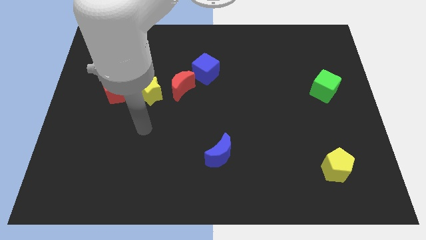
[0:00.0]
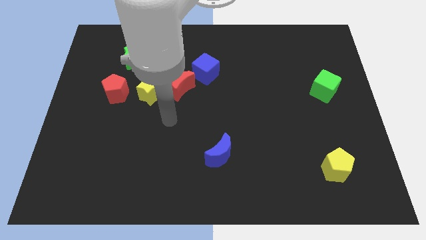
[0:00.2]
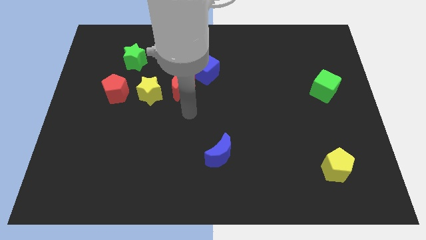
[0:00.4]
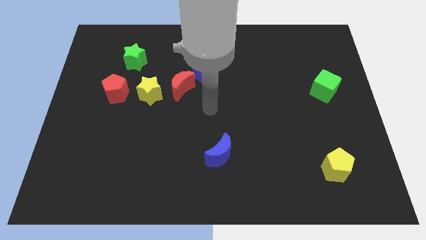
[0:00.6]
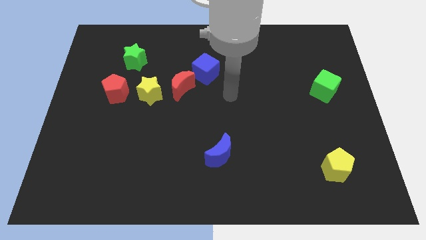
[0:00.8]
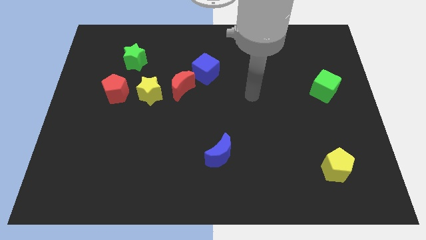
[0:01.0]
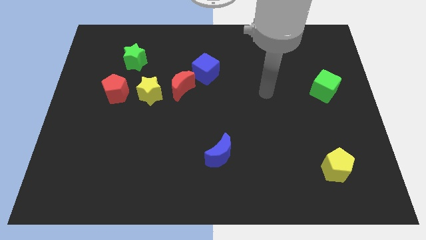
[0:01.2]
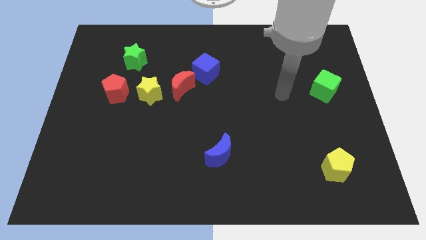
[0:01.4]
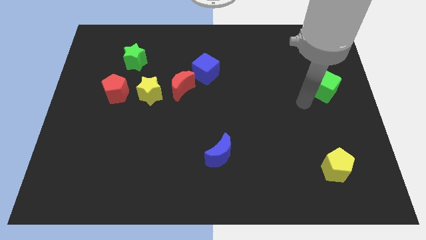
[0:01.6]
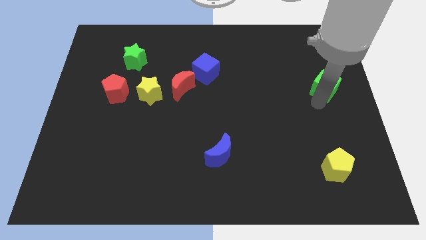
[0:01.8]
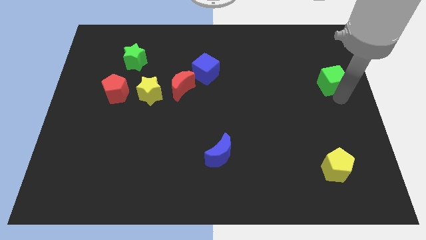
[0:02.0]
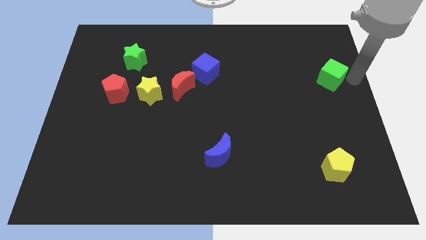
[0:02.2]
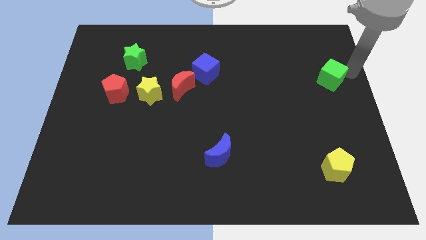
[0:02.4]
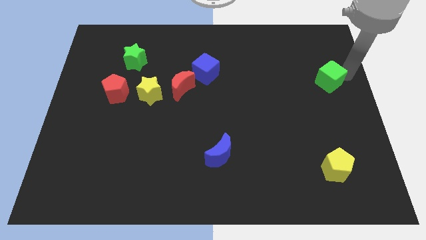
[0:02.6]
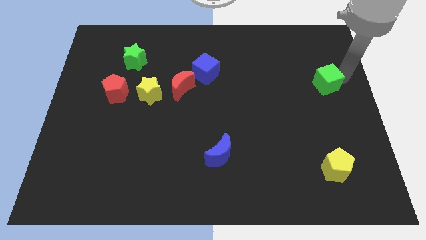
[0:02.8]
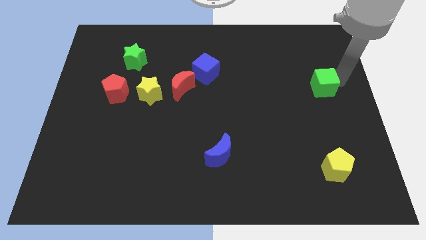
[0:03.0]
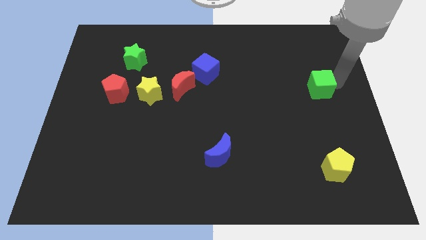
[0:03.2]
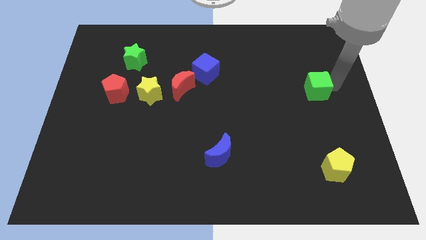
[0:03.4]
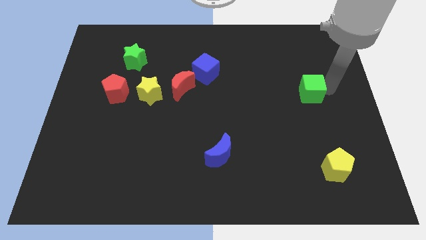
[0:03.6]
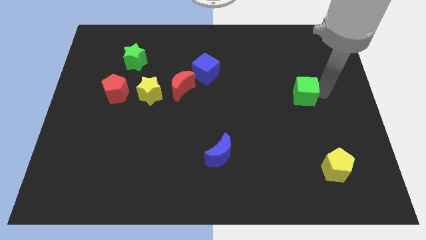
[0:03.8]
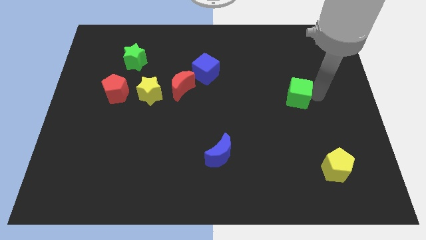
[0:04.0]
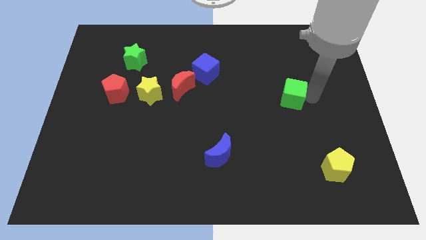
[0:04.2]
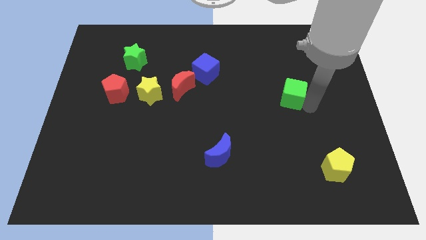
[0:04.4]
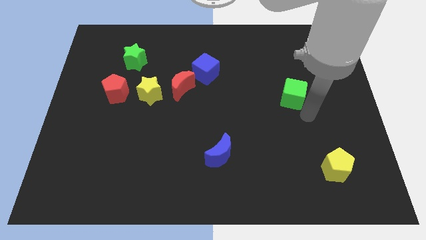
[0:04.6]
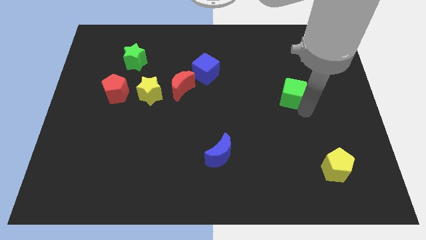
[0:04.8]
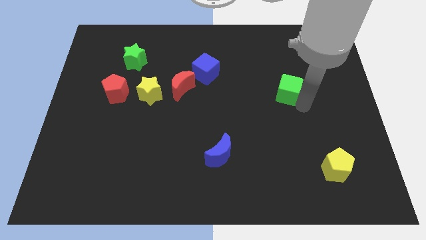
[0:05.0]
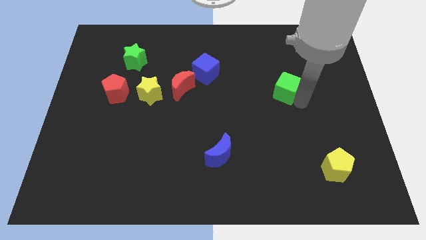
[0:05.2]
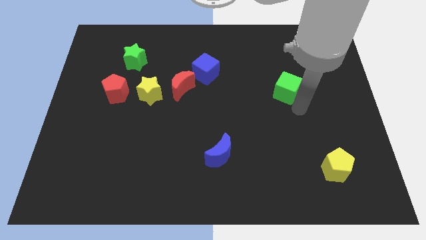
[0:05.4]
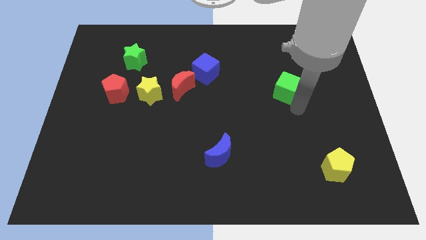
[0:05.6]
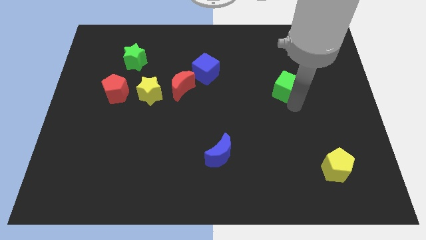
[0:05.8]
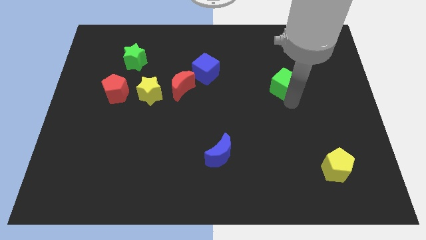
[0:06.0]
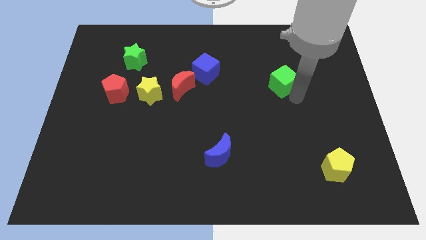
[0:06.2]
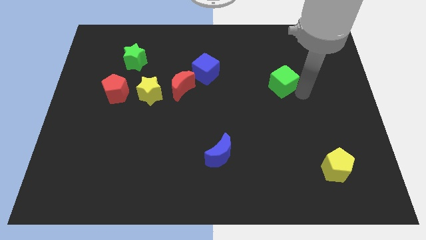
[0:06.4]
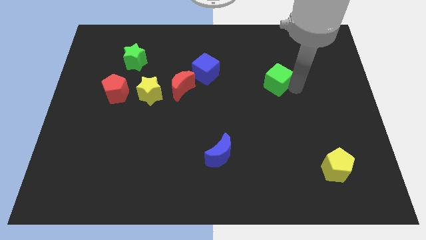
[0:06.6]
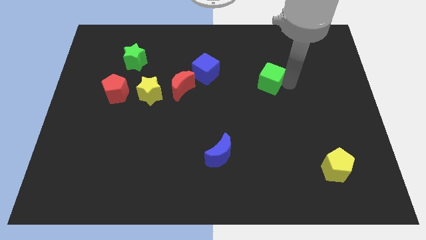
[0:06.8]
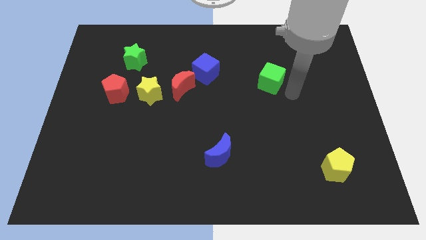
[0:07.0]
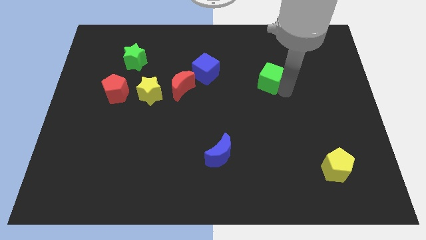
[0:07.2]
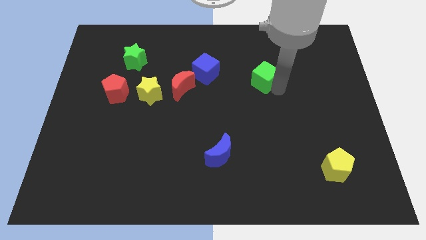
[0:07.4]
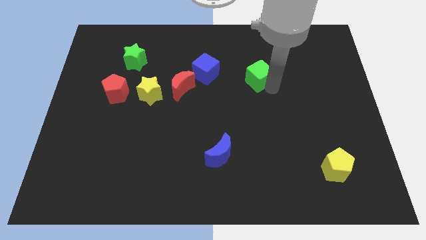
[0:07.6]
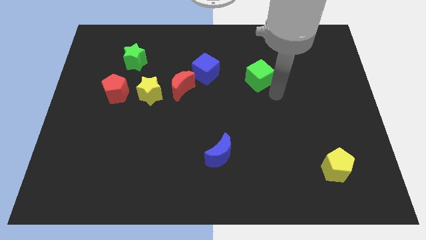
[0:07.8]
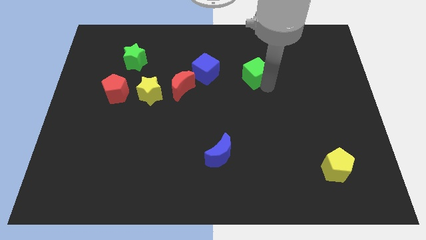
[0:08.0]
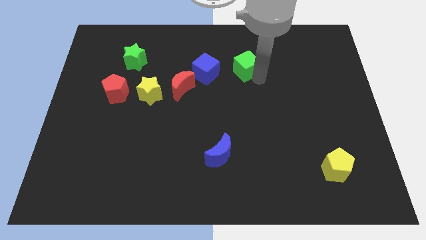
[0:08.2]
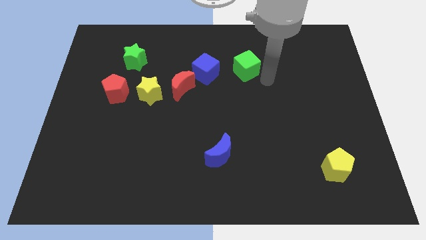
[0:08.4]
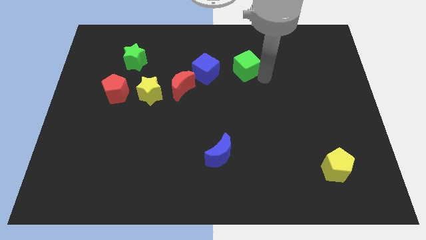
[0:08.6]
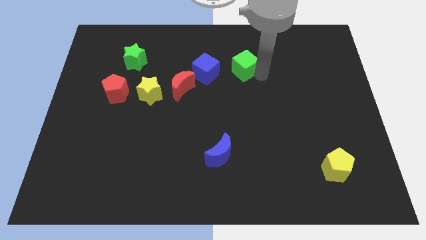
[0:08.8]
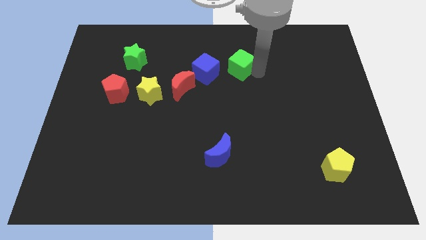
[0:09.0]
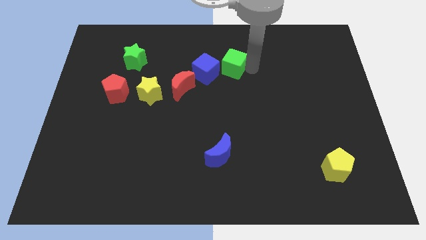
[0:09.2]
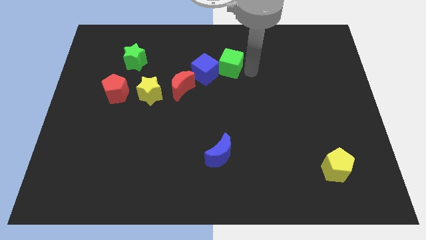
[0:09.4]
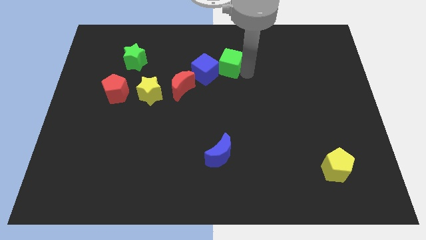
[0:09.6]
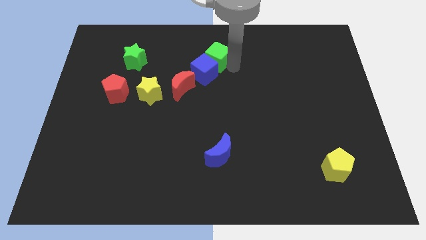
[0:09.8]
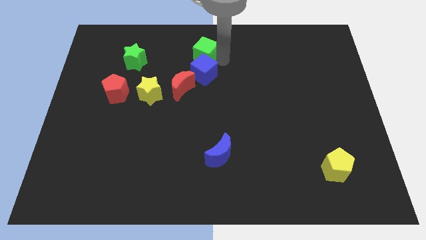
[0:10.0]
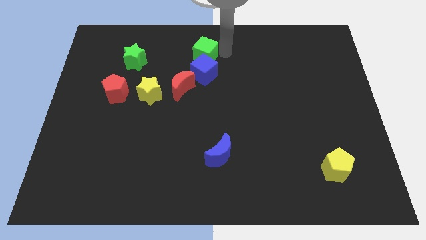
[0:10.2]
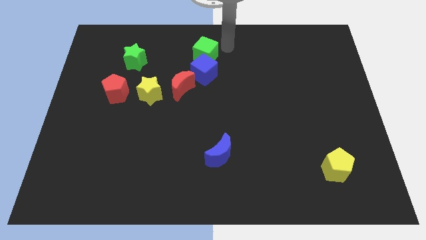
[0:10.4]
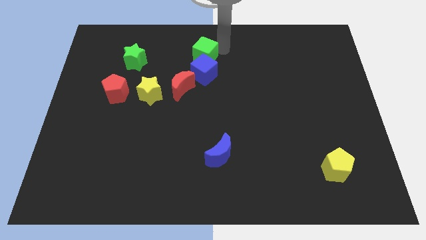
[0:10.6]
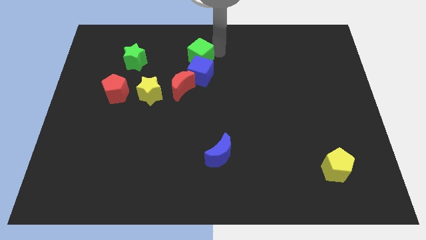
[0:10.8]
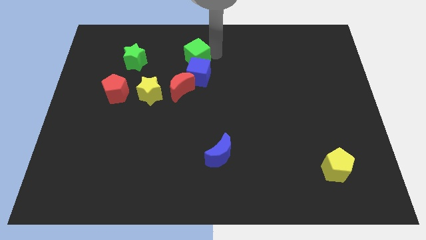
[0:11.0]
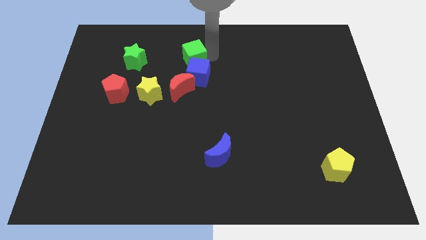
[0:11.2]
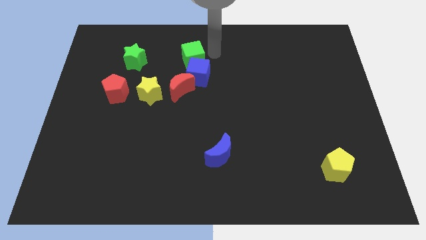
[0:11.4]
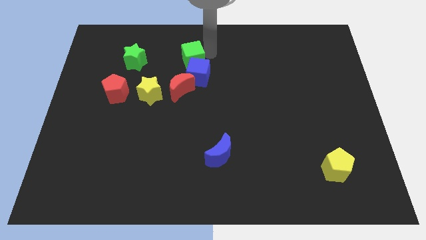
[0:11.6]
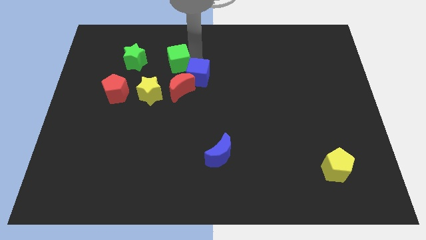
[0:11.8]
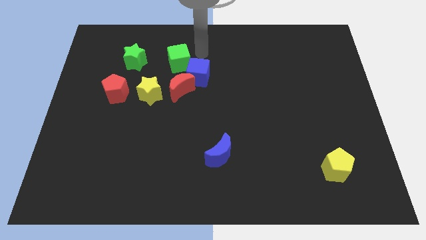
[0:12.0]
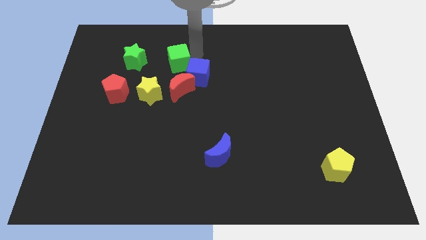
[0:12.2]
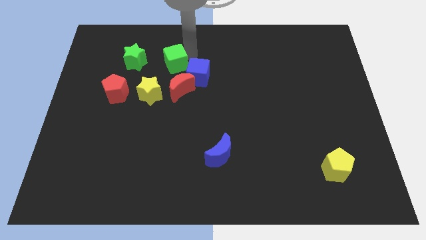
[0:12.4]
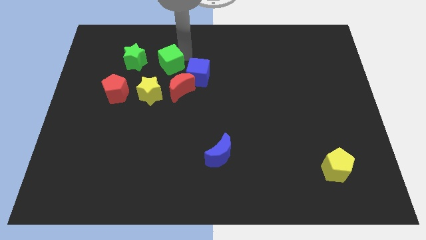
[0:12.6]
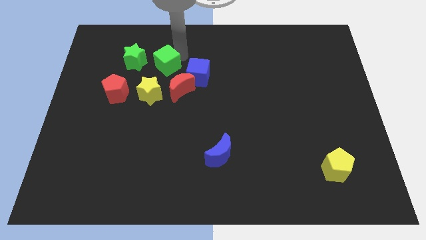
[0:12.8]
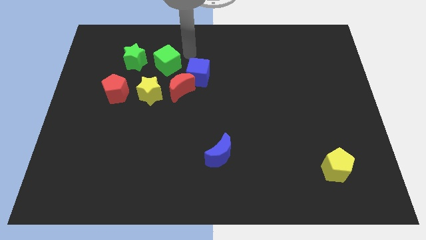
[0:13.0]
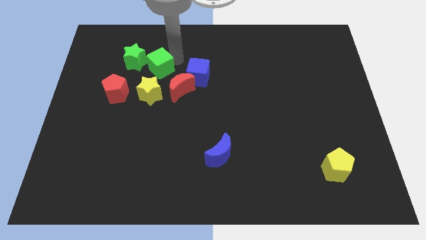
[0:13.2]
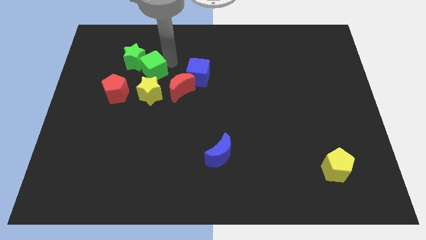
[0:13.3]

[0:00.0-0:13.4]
push the green cube to the top right of the red pentagon

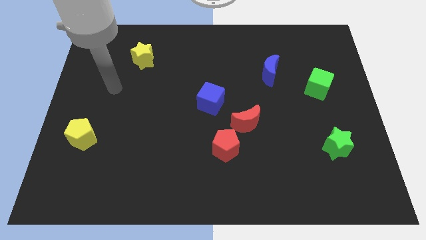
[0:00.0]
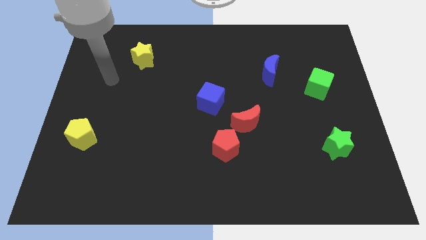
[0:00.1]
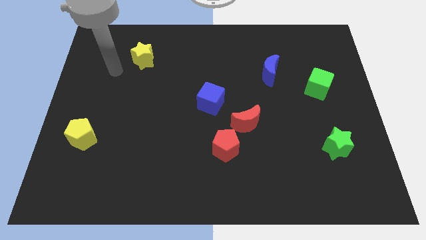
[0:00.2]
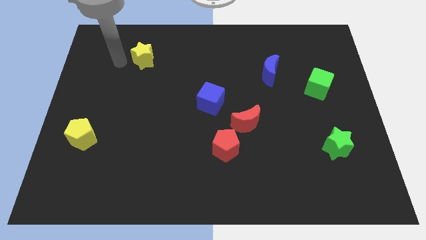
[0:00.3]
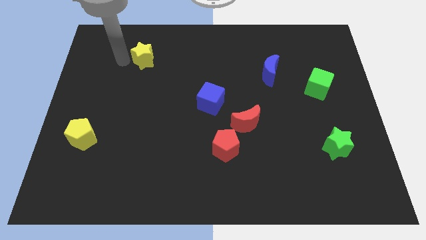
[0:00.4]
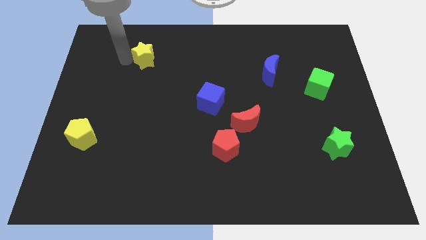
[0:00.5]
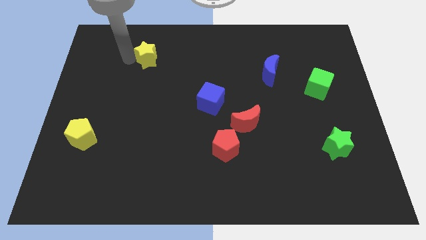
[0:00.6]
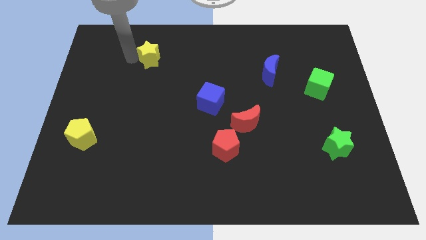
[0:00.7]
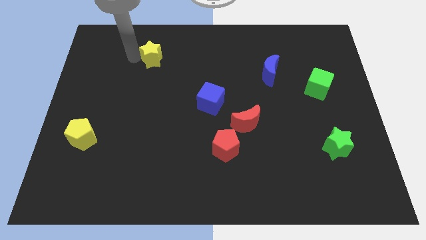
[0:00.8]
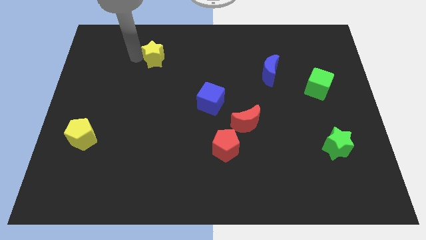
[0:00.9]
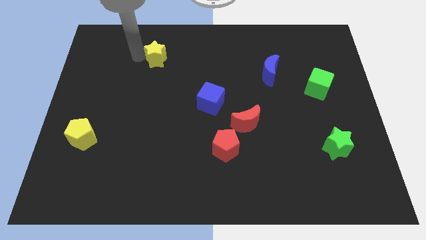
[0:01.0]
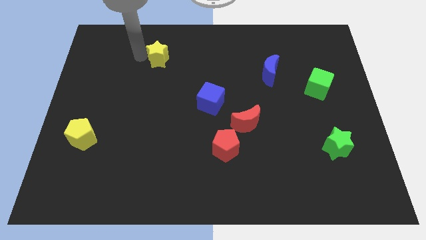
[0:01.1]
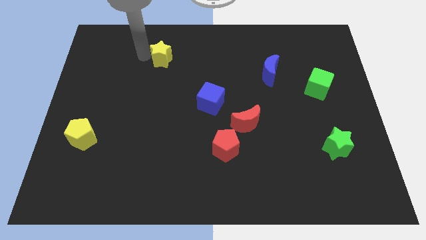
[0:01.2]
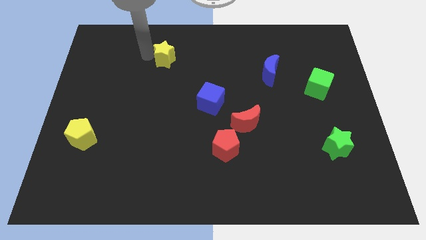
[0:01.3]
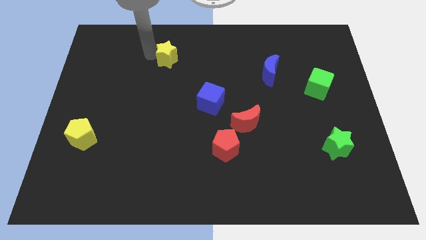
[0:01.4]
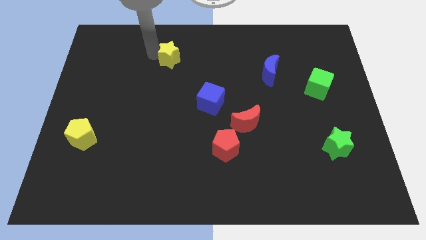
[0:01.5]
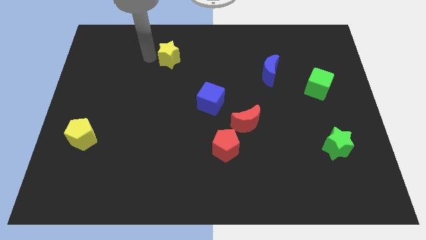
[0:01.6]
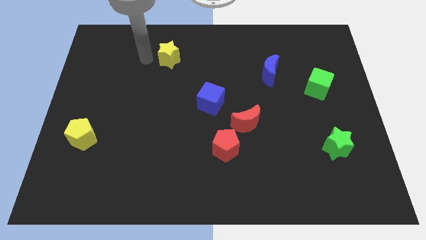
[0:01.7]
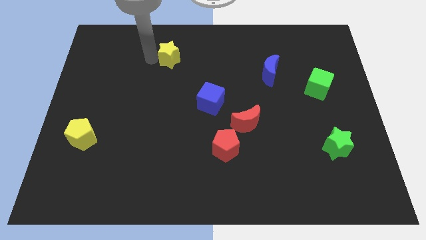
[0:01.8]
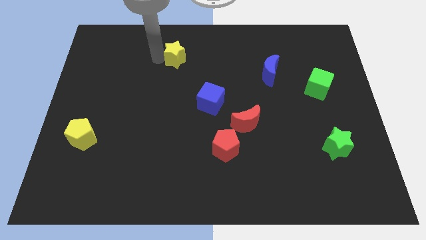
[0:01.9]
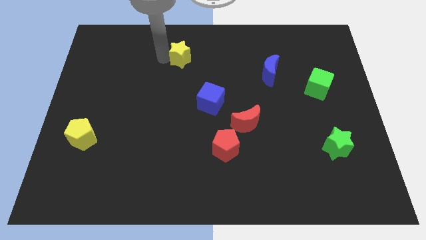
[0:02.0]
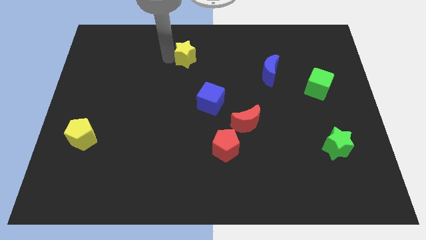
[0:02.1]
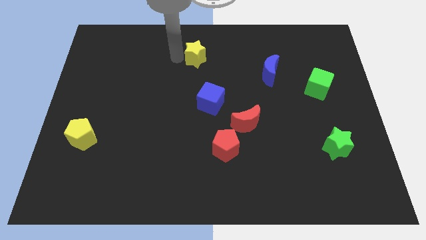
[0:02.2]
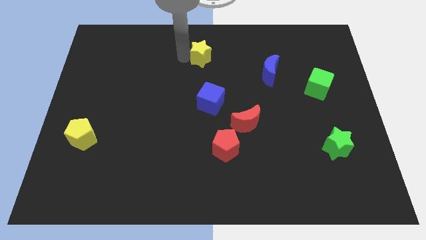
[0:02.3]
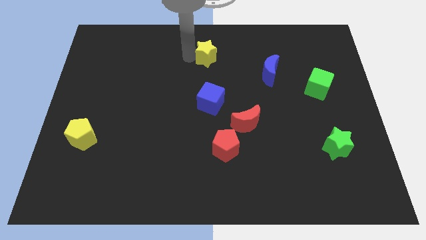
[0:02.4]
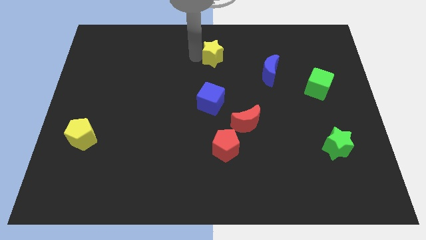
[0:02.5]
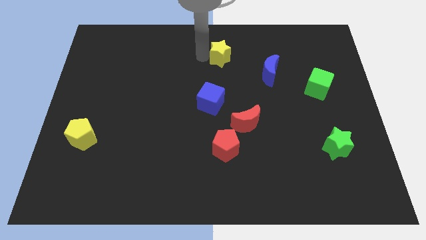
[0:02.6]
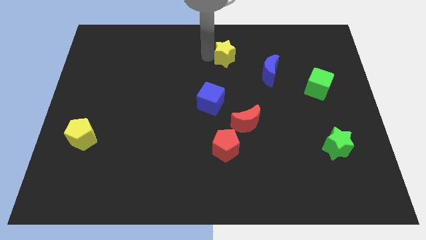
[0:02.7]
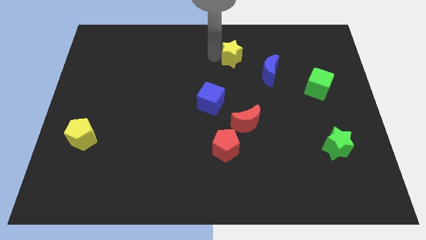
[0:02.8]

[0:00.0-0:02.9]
push the yellow star diagonally up and to the left of the blue moon
